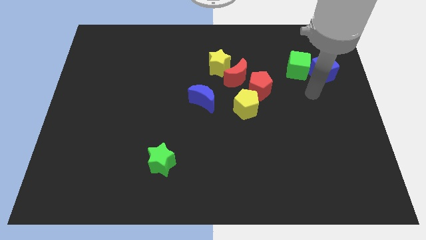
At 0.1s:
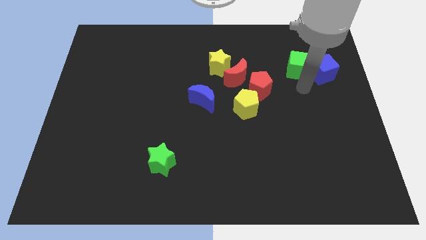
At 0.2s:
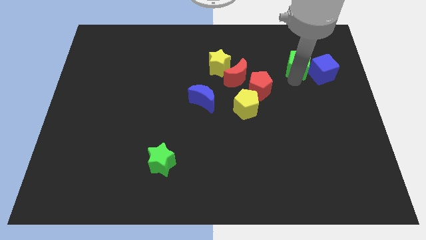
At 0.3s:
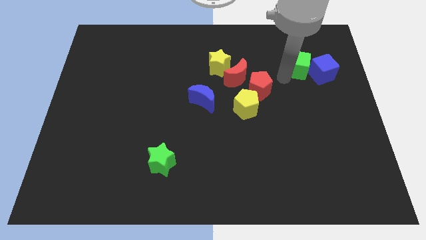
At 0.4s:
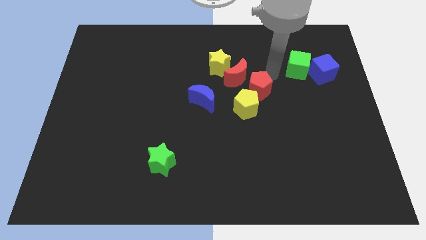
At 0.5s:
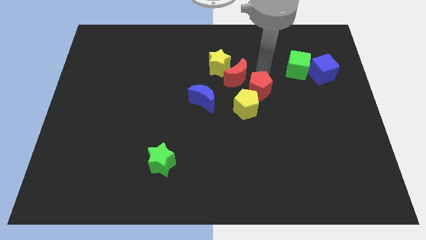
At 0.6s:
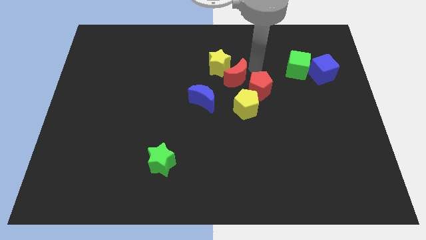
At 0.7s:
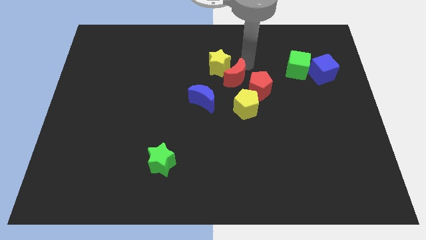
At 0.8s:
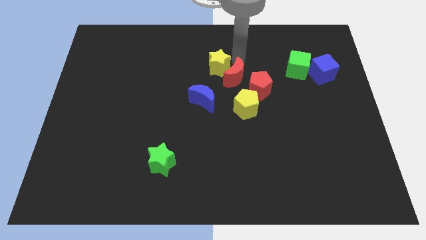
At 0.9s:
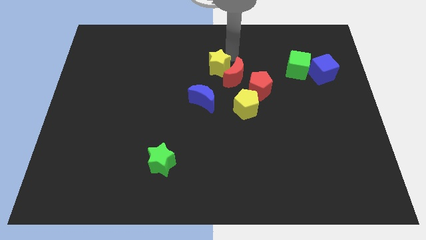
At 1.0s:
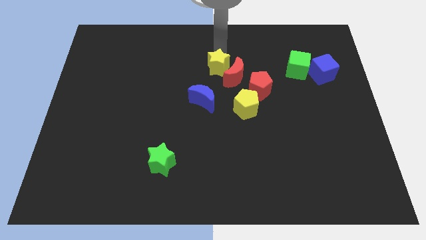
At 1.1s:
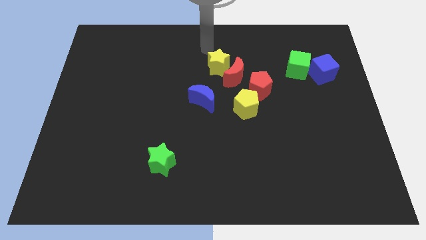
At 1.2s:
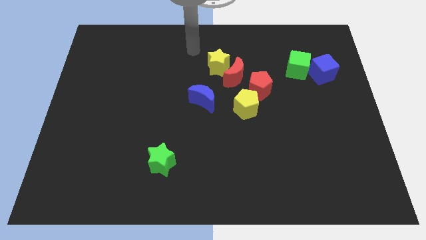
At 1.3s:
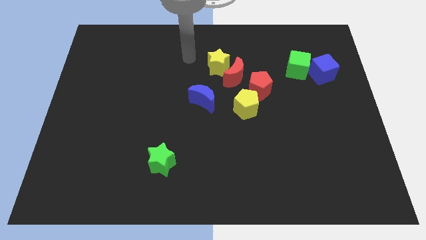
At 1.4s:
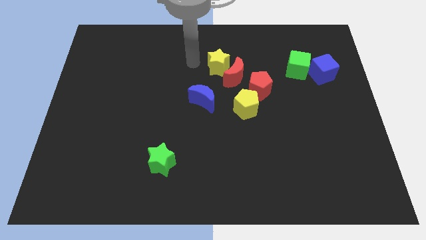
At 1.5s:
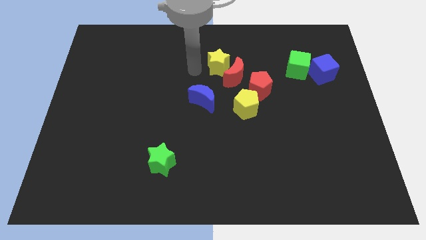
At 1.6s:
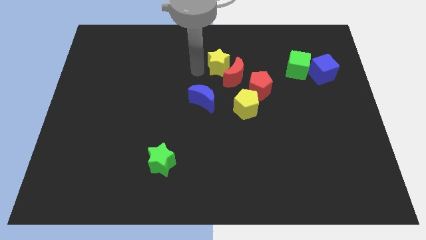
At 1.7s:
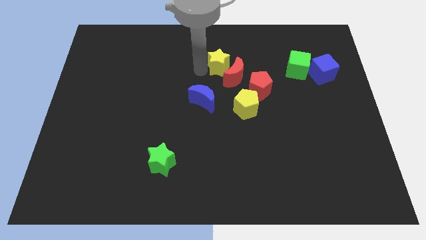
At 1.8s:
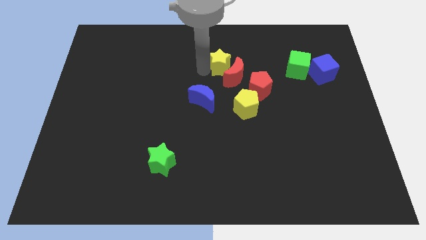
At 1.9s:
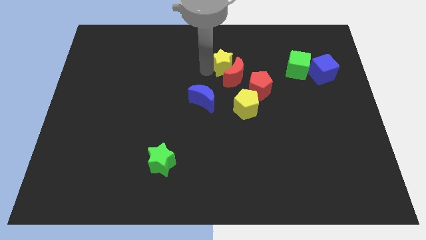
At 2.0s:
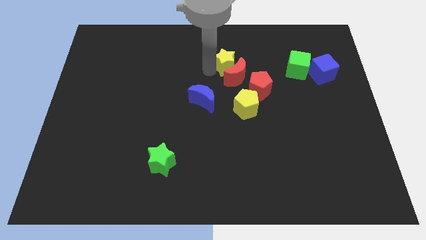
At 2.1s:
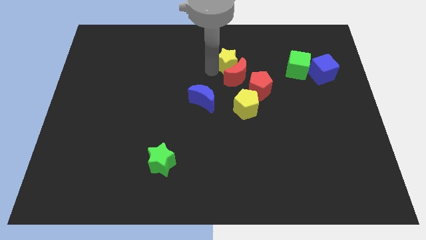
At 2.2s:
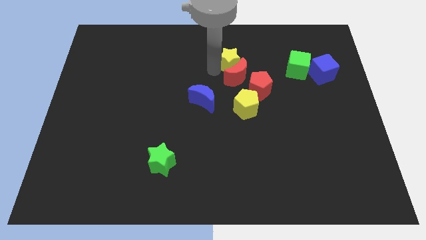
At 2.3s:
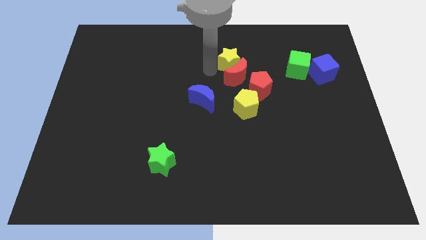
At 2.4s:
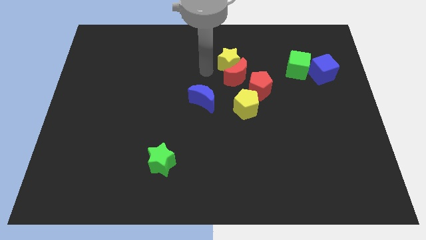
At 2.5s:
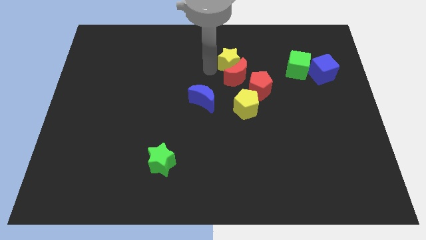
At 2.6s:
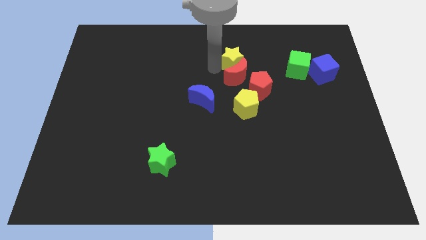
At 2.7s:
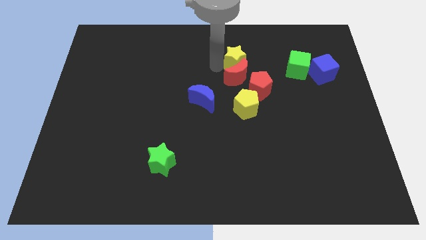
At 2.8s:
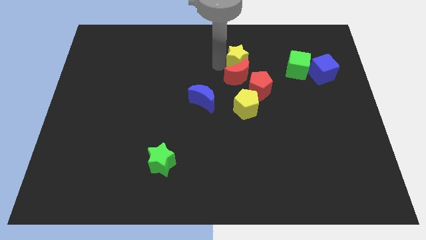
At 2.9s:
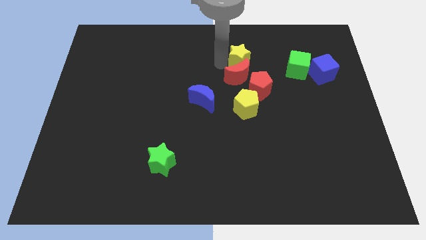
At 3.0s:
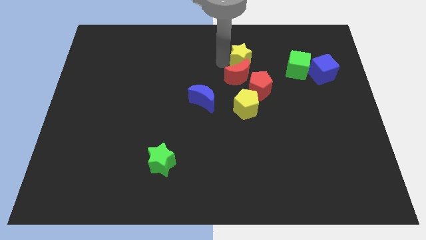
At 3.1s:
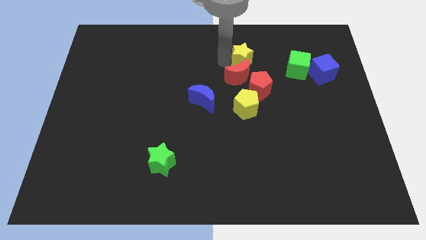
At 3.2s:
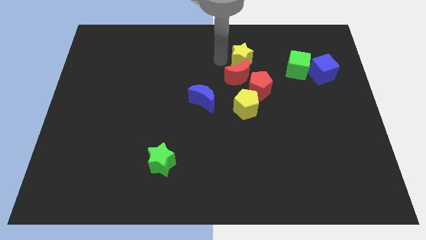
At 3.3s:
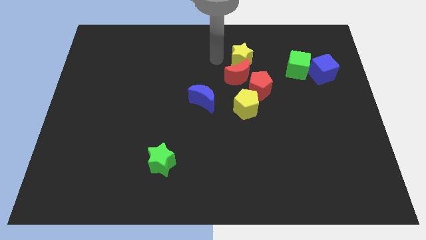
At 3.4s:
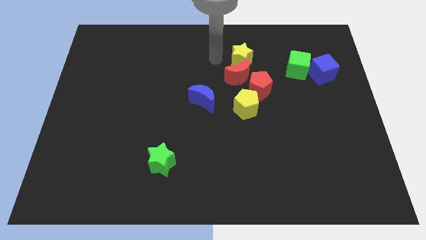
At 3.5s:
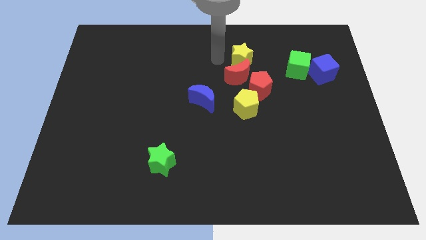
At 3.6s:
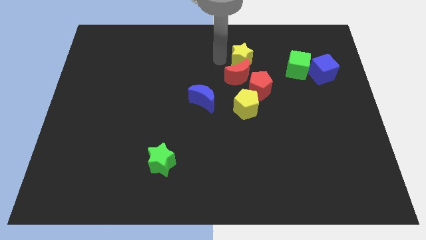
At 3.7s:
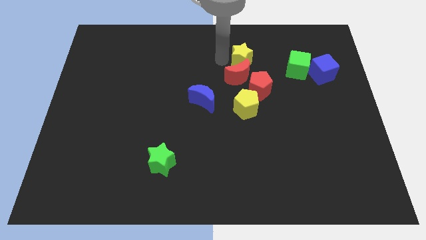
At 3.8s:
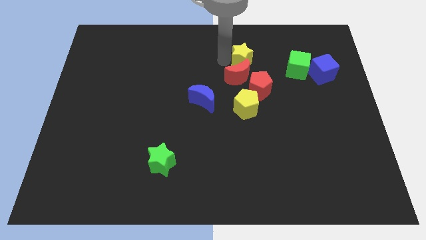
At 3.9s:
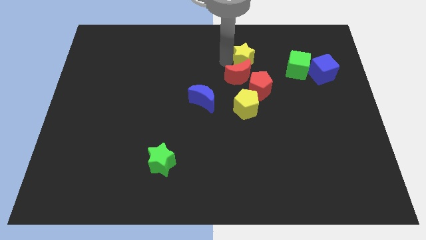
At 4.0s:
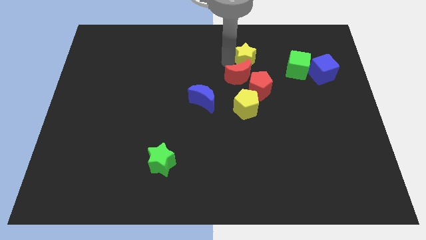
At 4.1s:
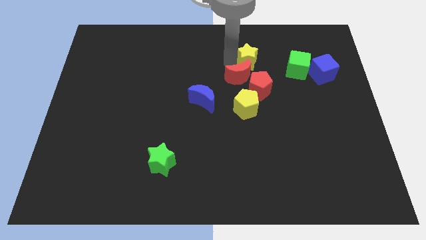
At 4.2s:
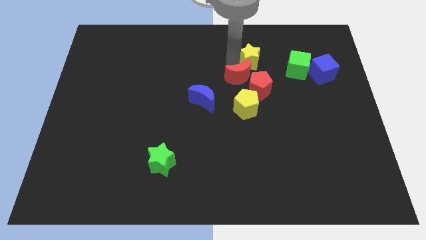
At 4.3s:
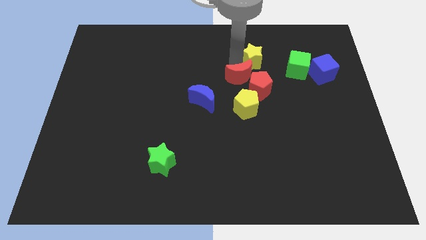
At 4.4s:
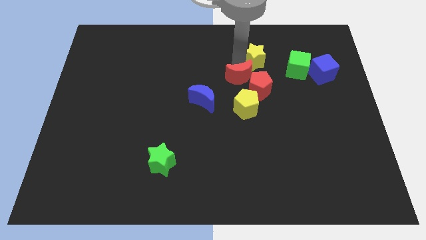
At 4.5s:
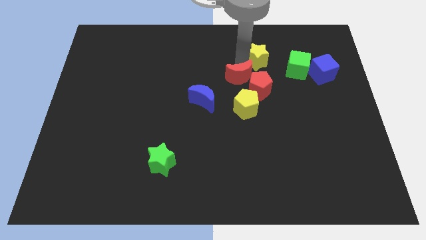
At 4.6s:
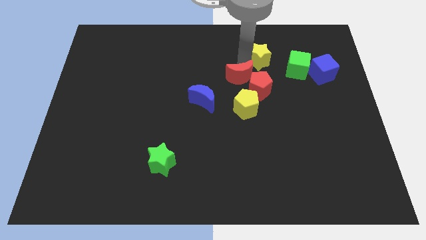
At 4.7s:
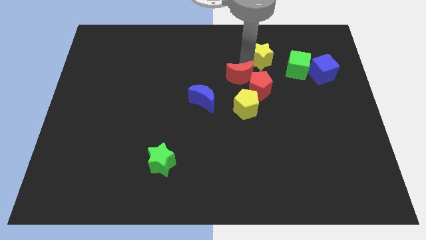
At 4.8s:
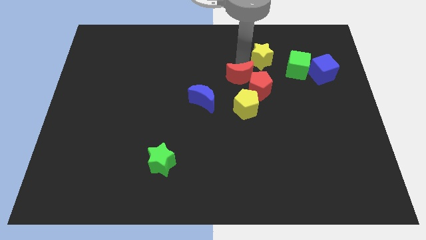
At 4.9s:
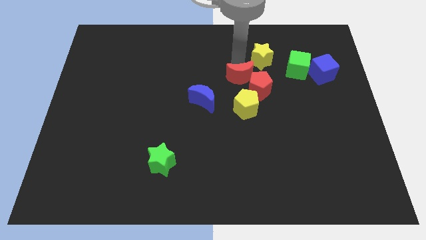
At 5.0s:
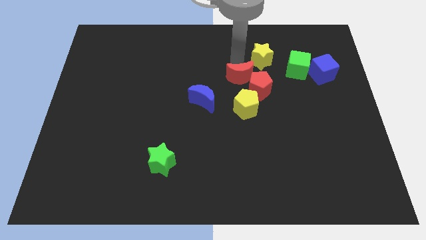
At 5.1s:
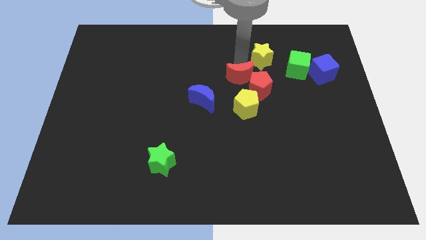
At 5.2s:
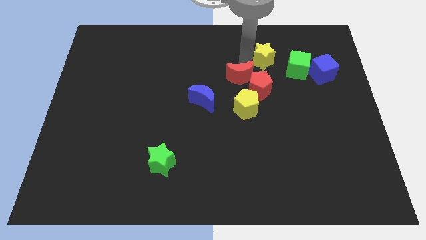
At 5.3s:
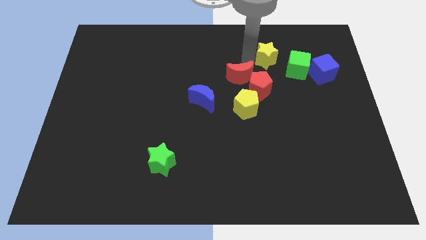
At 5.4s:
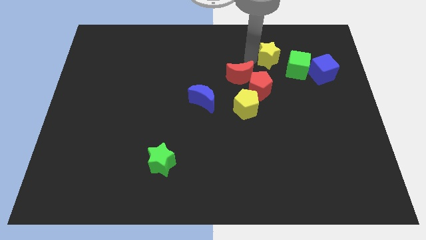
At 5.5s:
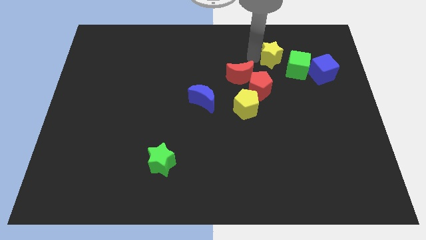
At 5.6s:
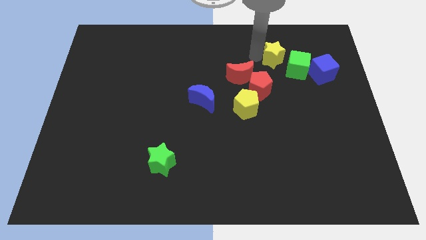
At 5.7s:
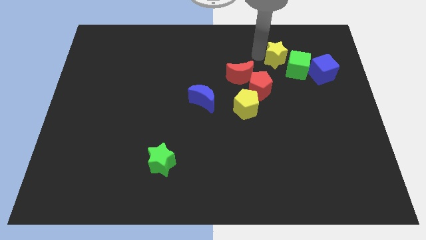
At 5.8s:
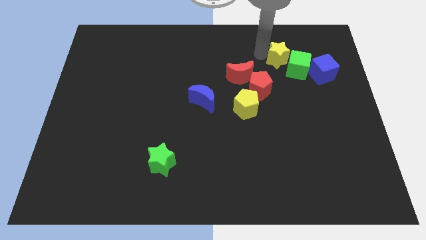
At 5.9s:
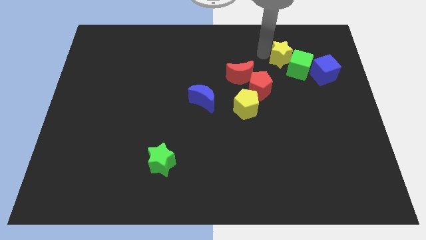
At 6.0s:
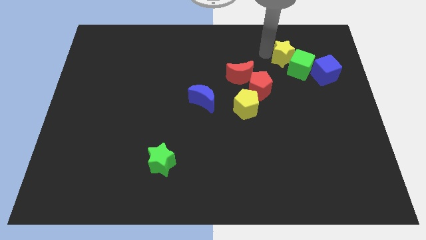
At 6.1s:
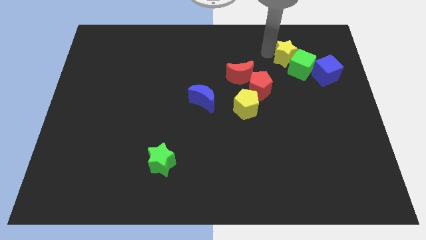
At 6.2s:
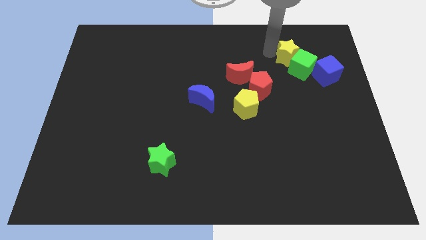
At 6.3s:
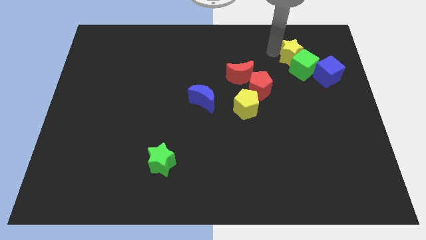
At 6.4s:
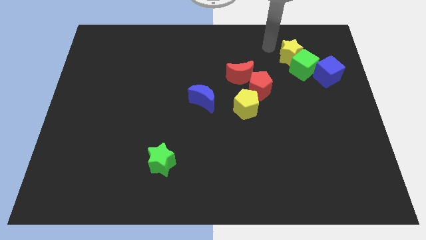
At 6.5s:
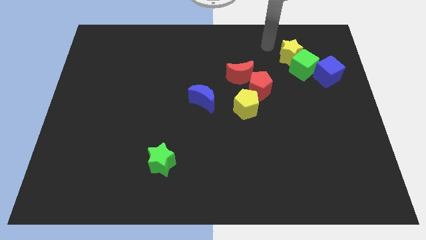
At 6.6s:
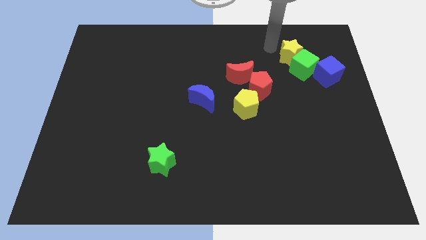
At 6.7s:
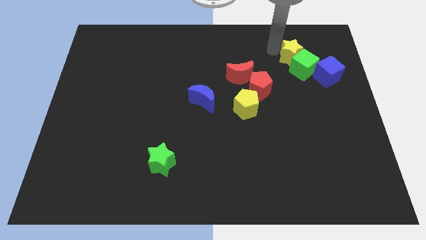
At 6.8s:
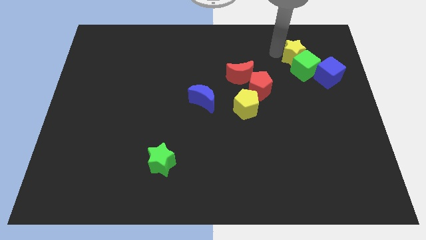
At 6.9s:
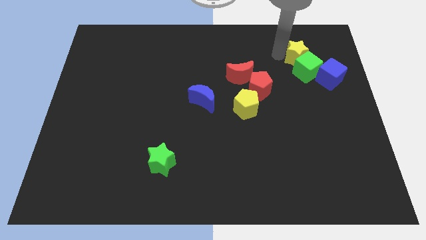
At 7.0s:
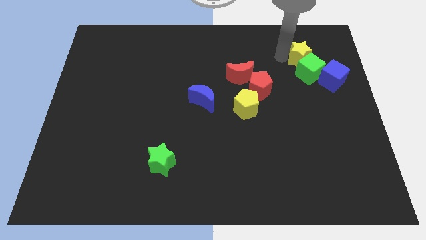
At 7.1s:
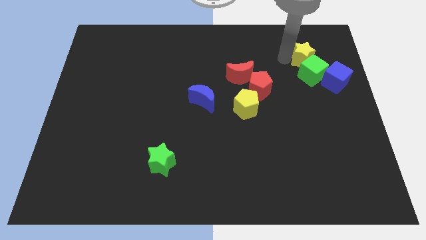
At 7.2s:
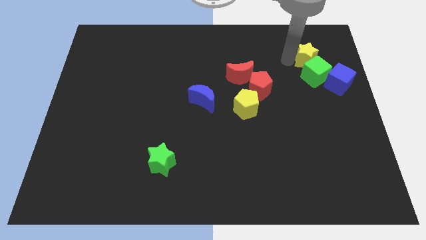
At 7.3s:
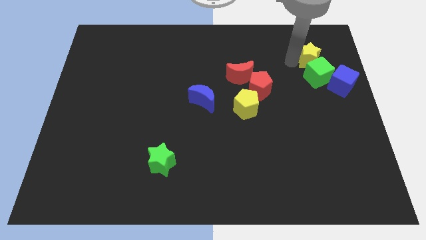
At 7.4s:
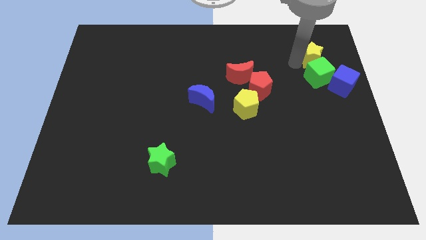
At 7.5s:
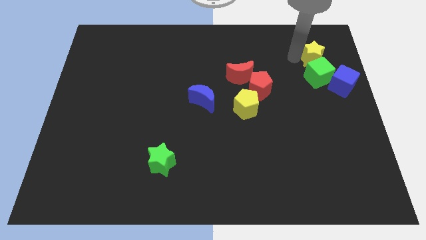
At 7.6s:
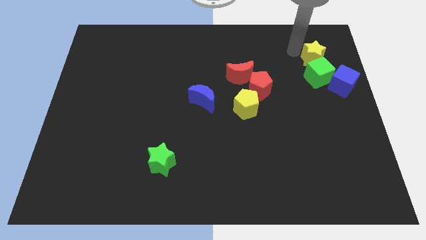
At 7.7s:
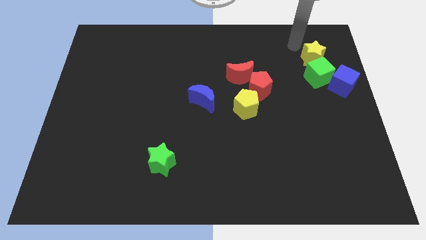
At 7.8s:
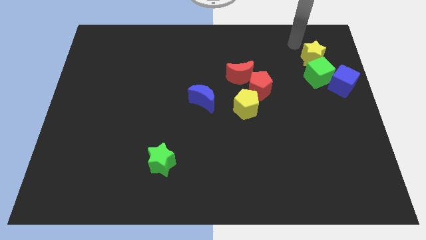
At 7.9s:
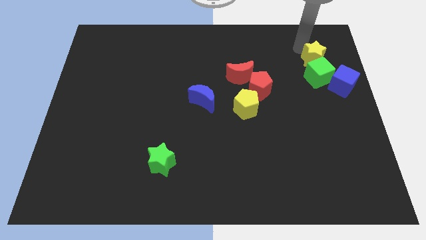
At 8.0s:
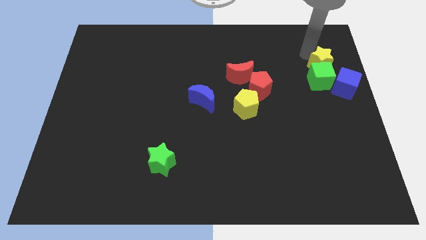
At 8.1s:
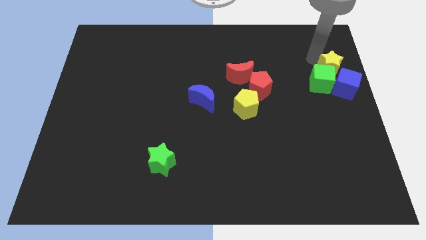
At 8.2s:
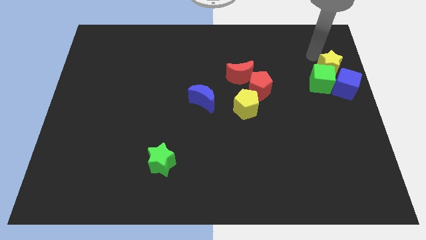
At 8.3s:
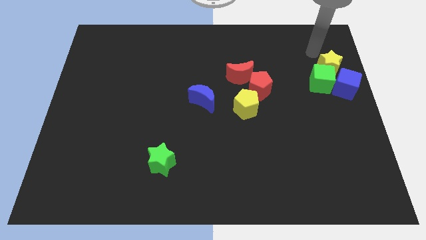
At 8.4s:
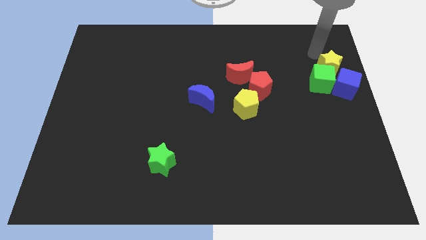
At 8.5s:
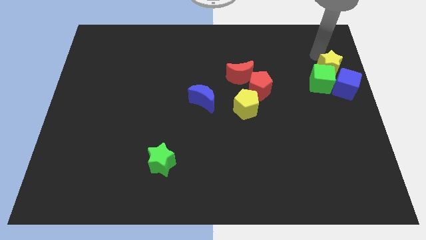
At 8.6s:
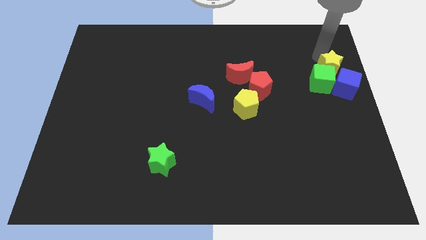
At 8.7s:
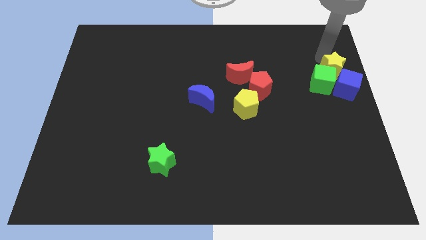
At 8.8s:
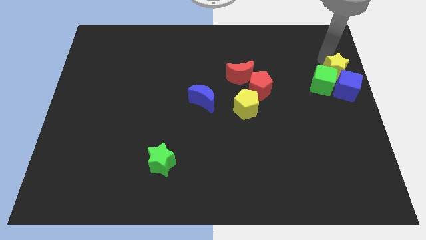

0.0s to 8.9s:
push the yellow star to the blue cube
